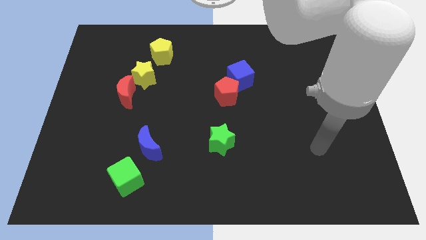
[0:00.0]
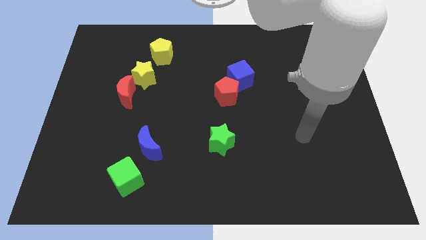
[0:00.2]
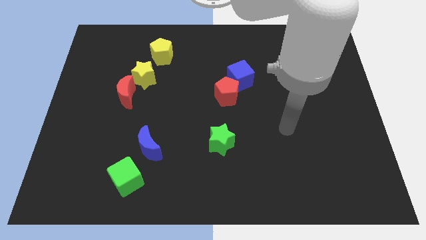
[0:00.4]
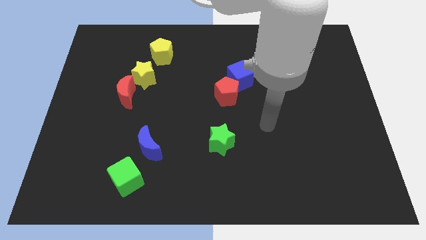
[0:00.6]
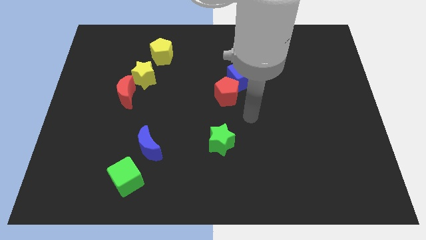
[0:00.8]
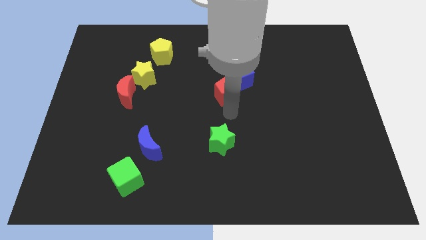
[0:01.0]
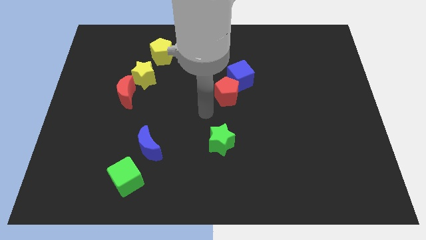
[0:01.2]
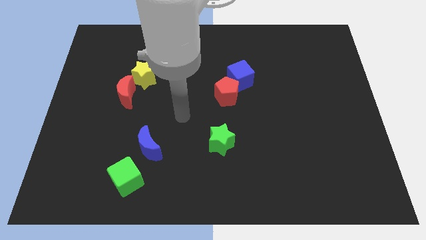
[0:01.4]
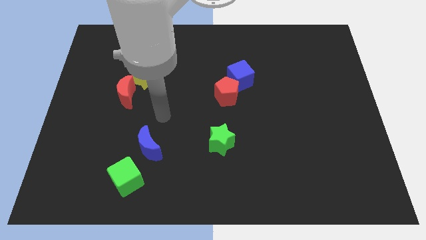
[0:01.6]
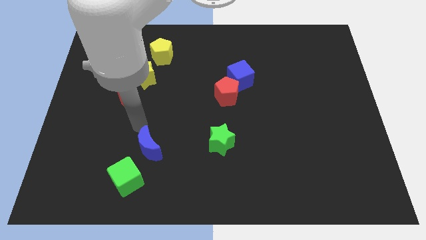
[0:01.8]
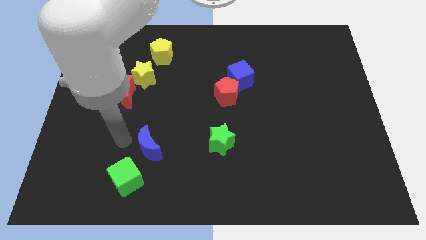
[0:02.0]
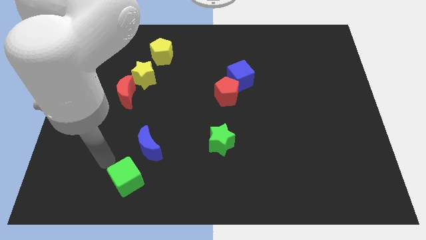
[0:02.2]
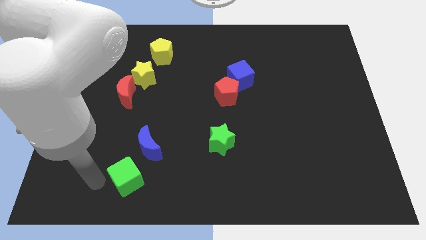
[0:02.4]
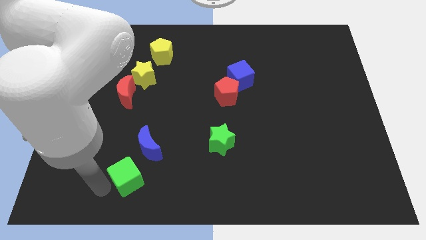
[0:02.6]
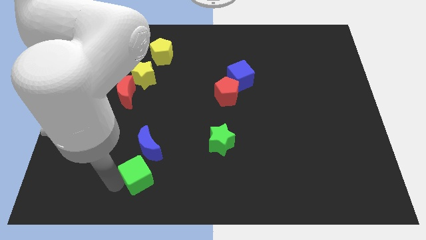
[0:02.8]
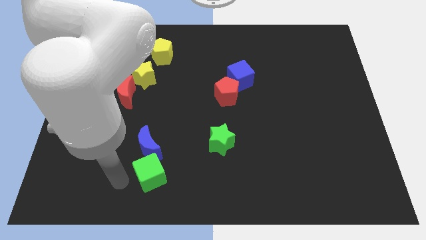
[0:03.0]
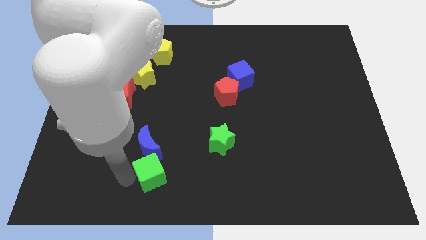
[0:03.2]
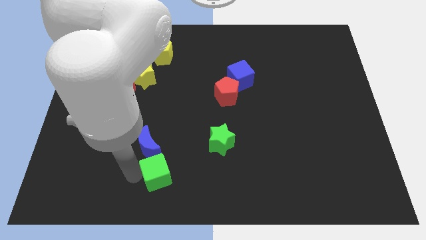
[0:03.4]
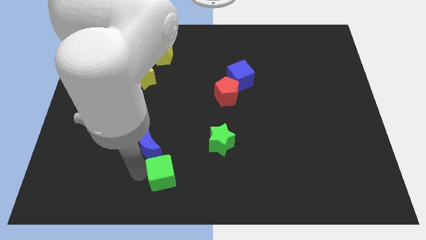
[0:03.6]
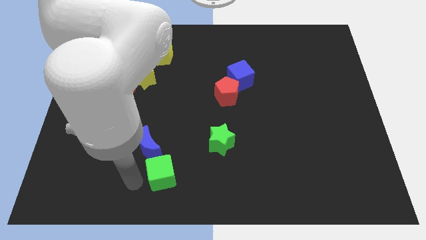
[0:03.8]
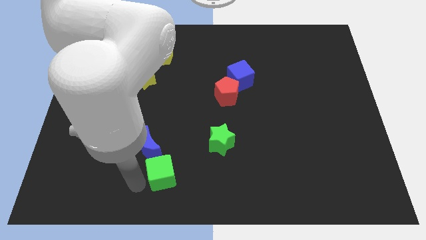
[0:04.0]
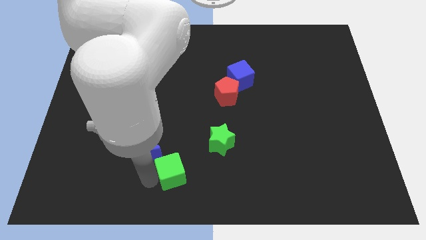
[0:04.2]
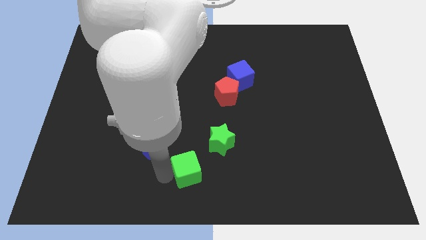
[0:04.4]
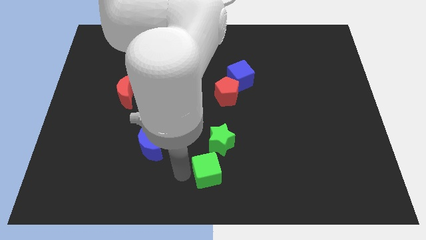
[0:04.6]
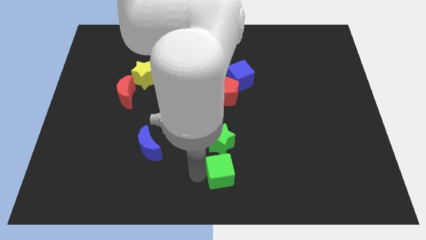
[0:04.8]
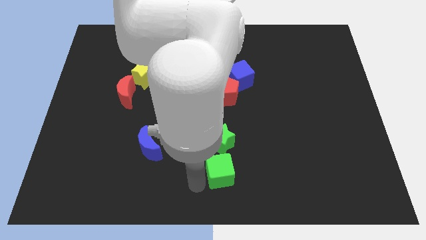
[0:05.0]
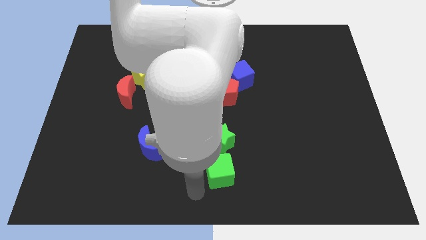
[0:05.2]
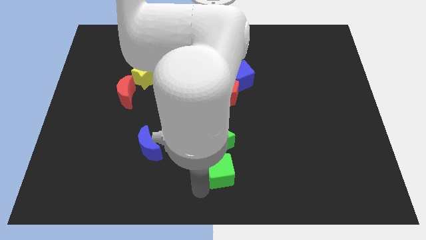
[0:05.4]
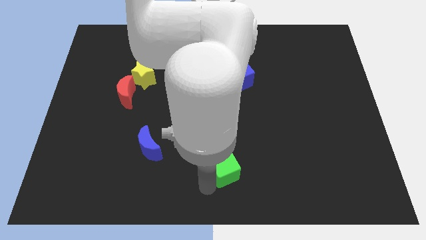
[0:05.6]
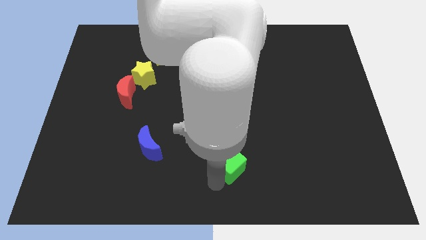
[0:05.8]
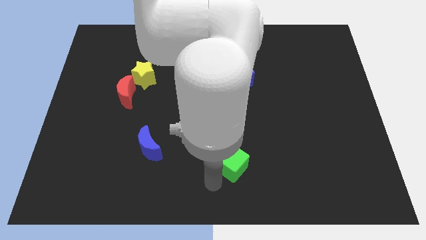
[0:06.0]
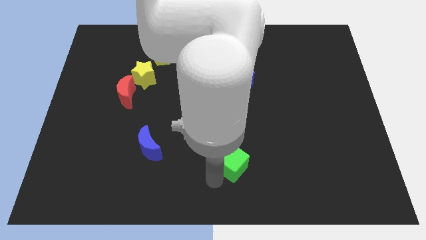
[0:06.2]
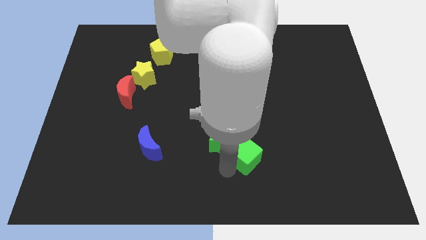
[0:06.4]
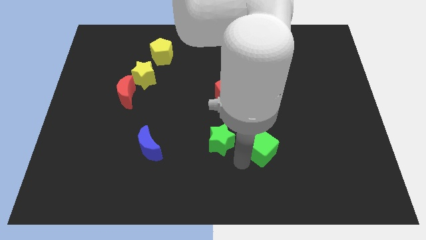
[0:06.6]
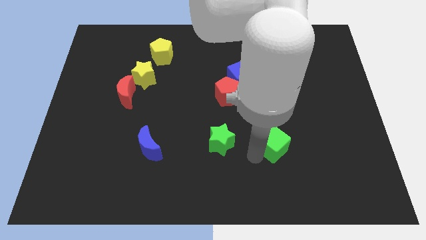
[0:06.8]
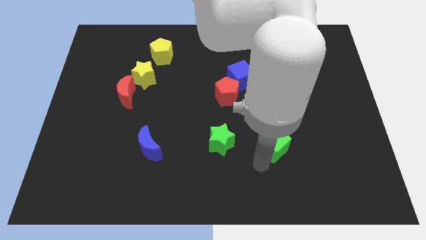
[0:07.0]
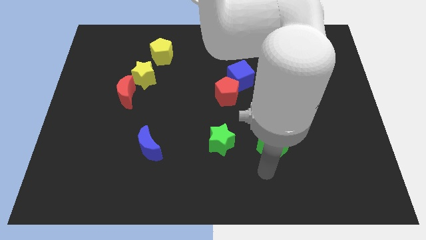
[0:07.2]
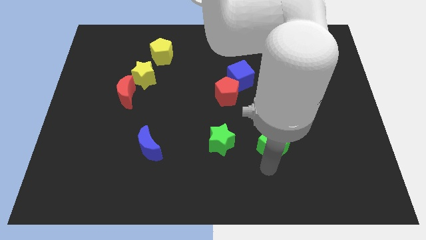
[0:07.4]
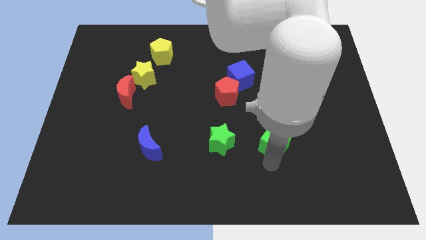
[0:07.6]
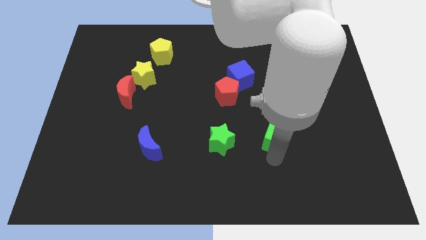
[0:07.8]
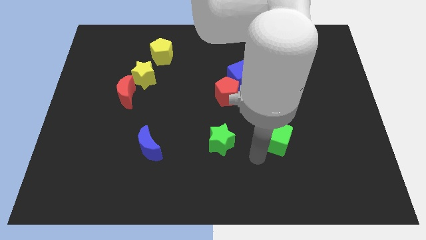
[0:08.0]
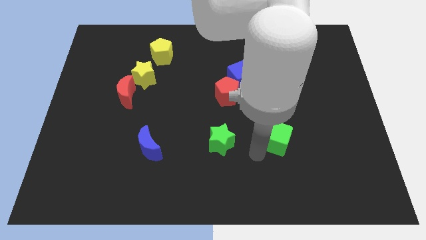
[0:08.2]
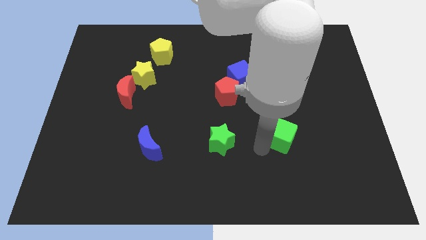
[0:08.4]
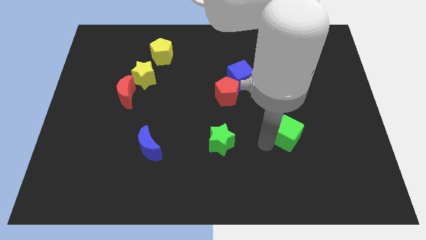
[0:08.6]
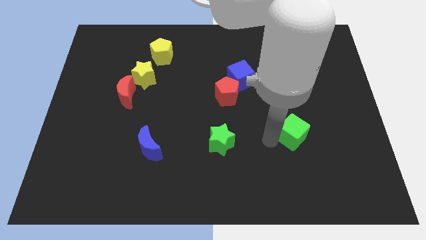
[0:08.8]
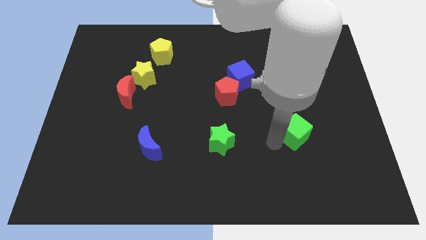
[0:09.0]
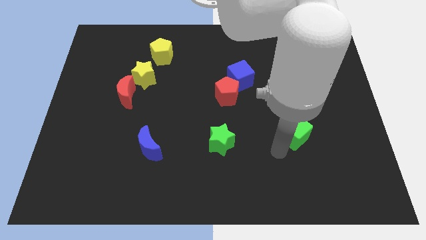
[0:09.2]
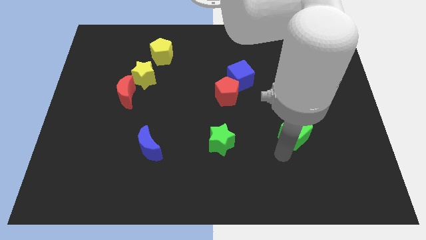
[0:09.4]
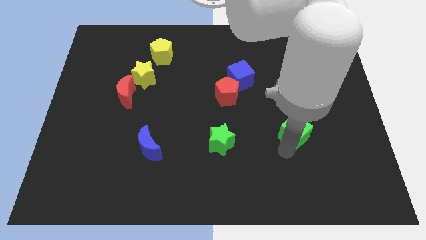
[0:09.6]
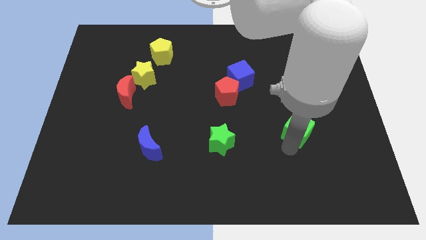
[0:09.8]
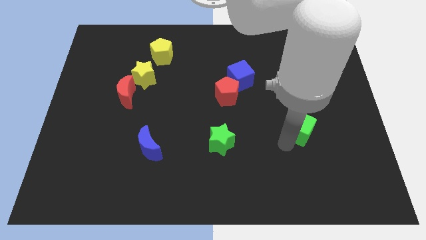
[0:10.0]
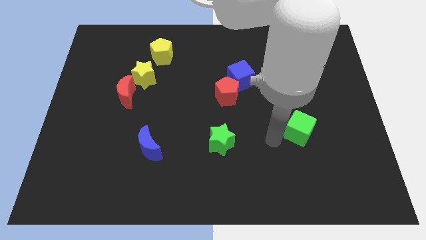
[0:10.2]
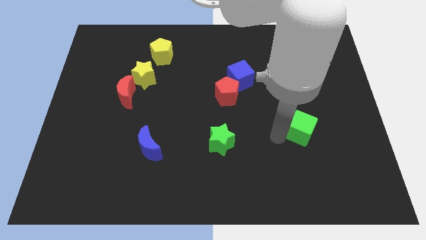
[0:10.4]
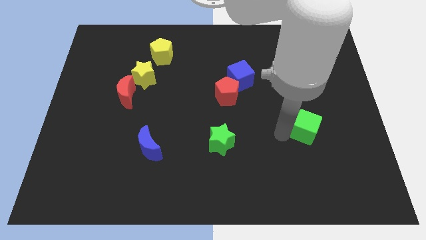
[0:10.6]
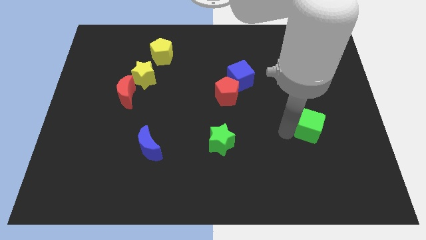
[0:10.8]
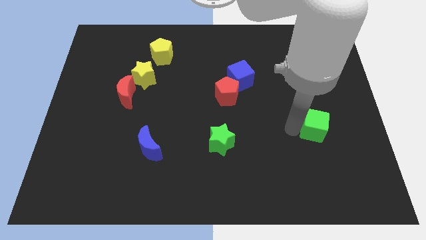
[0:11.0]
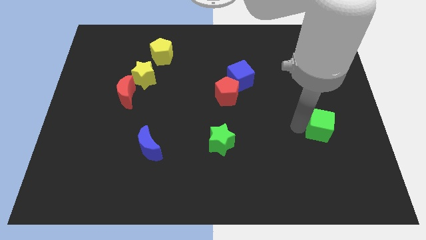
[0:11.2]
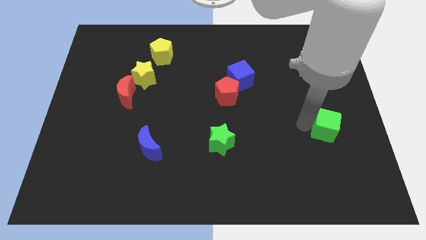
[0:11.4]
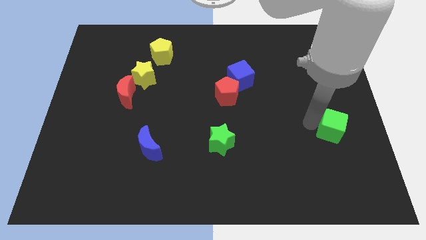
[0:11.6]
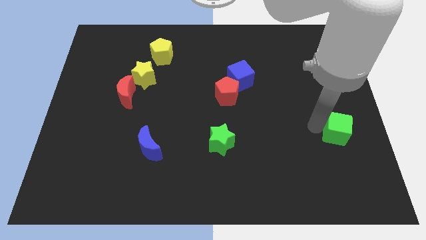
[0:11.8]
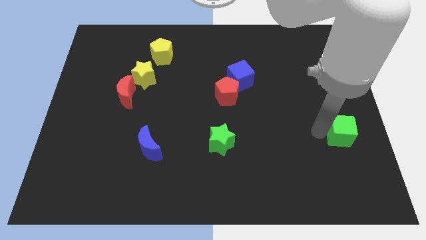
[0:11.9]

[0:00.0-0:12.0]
slide the green cube to the right side of the board

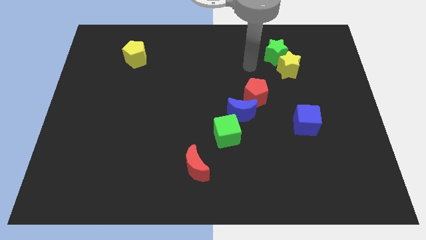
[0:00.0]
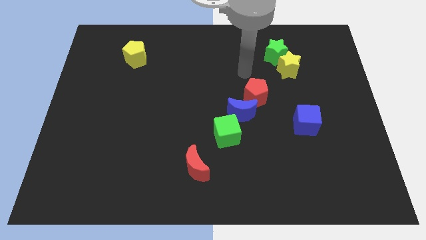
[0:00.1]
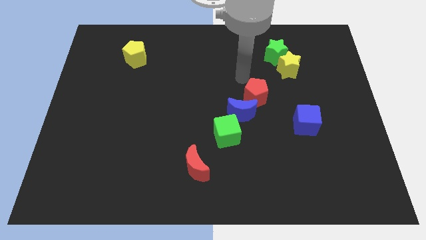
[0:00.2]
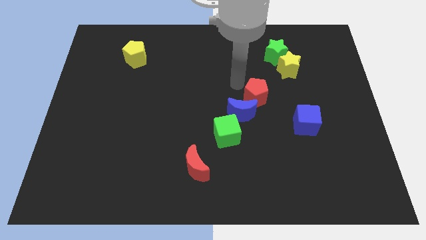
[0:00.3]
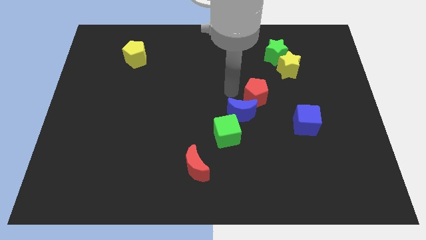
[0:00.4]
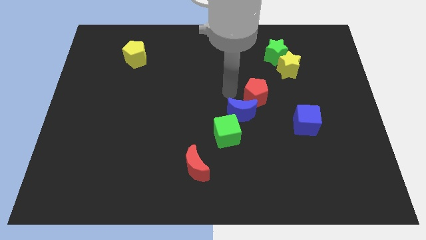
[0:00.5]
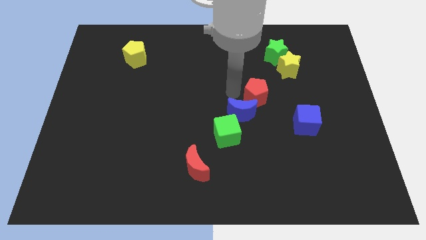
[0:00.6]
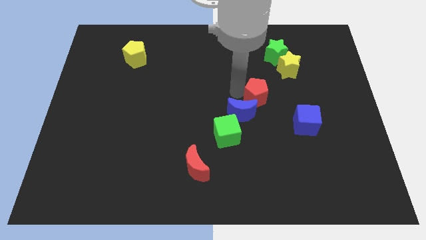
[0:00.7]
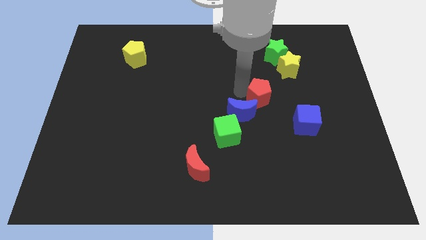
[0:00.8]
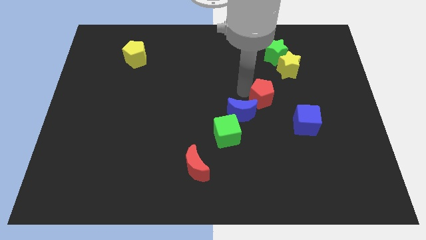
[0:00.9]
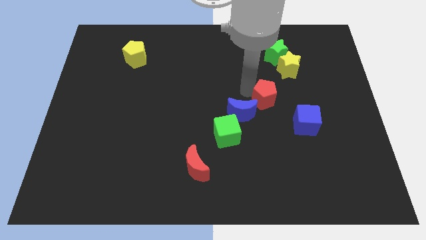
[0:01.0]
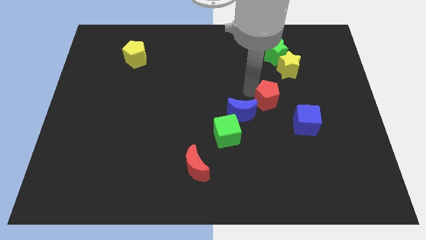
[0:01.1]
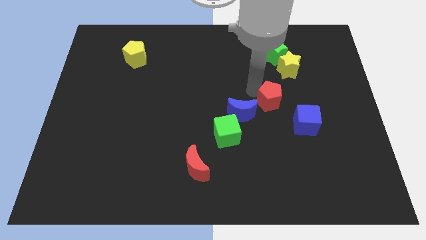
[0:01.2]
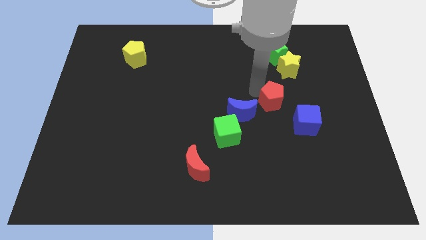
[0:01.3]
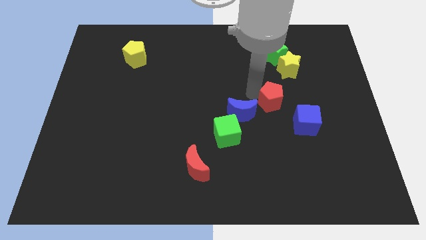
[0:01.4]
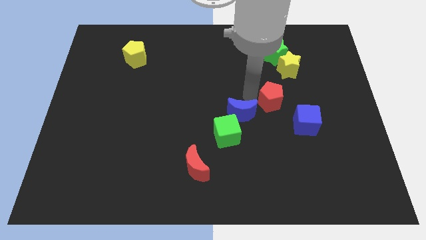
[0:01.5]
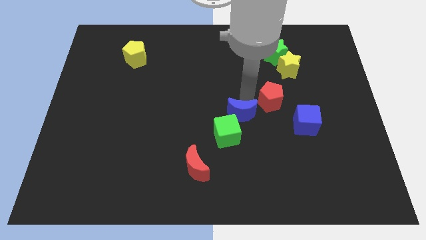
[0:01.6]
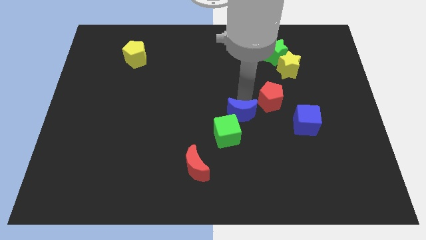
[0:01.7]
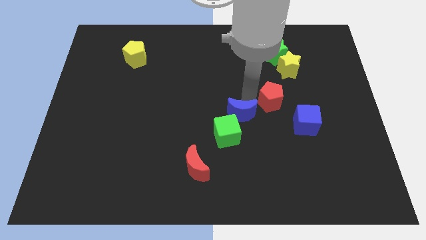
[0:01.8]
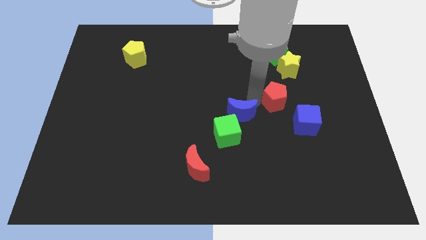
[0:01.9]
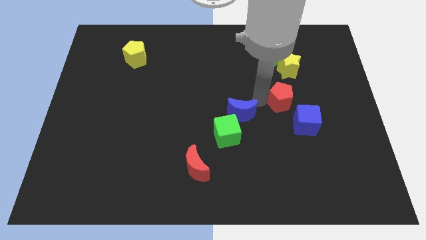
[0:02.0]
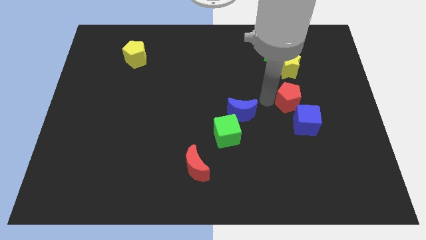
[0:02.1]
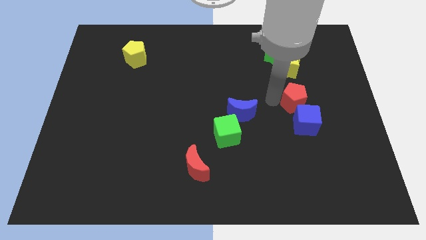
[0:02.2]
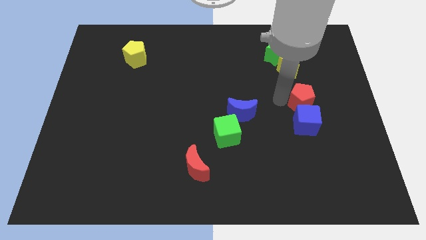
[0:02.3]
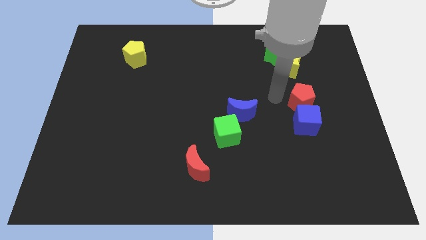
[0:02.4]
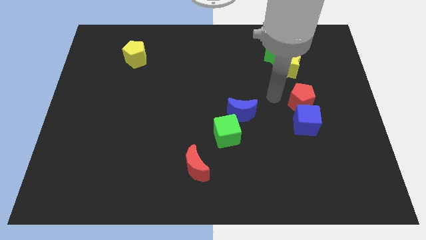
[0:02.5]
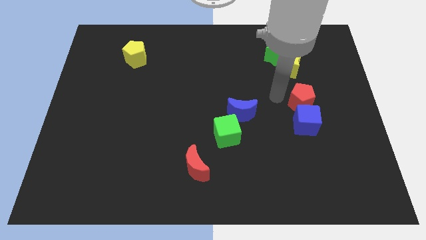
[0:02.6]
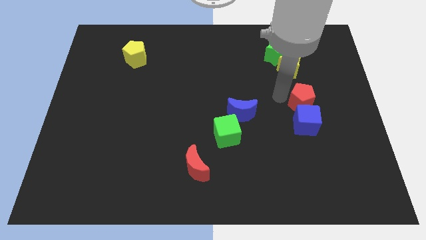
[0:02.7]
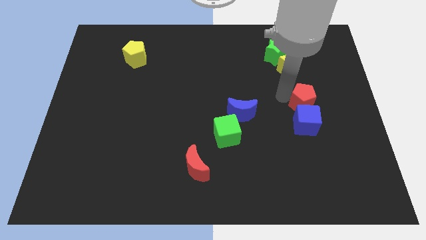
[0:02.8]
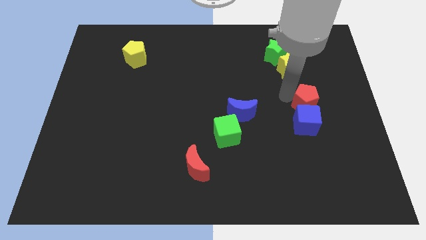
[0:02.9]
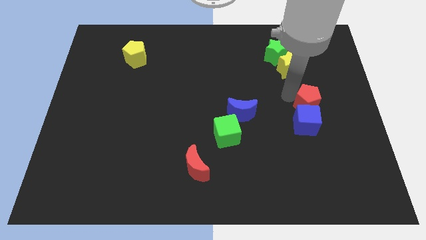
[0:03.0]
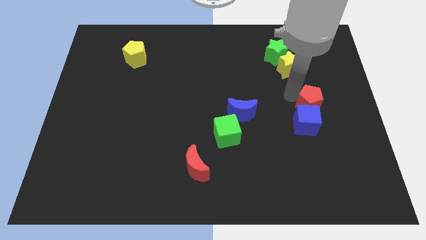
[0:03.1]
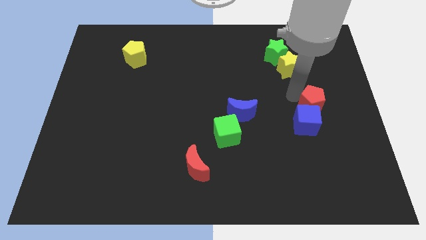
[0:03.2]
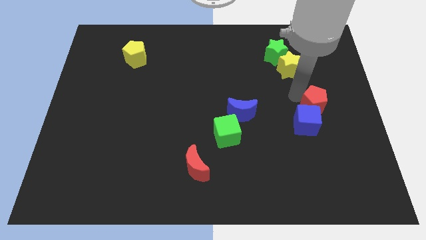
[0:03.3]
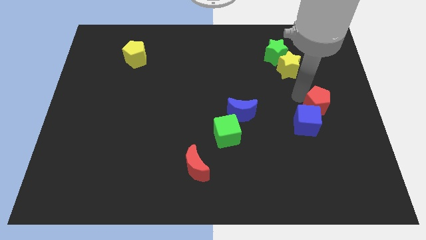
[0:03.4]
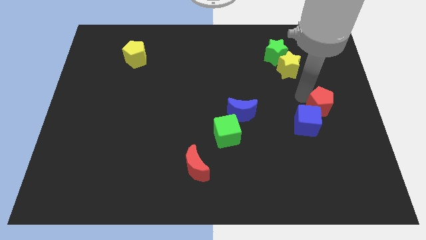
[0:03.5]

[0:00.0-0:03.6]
move the red pentagon to the right side of the board
